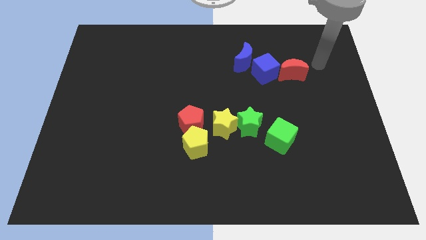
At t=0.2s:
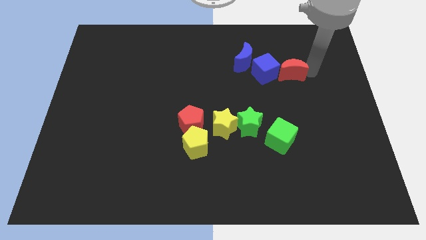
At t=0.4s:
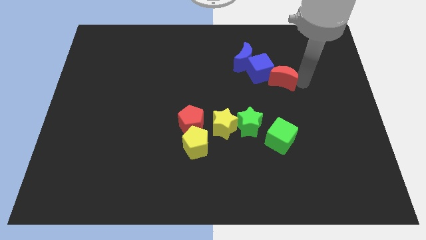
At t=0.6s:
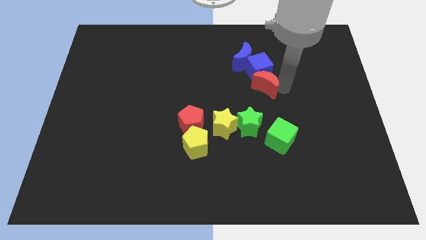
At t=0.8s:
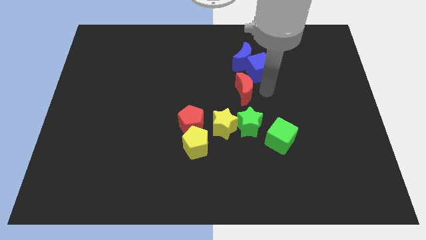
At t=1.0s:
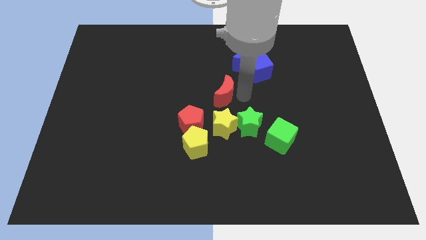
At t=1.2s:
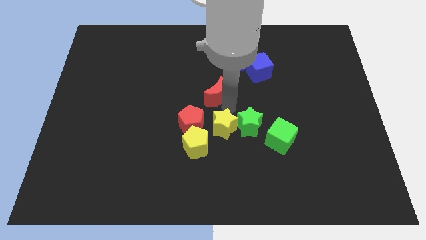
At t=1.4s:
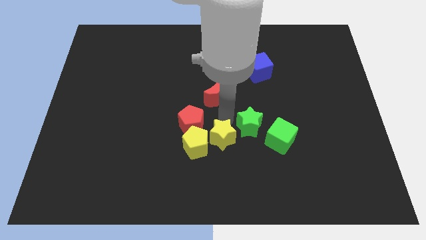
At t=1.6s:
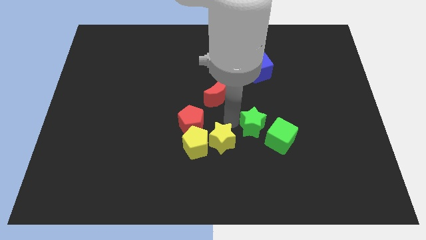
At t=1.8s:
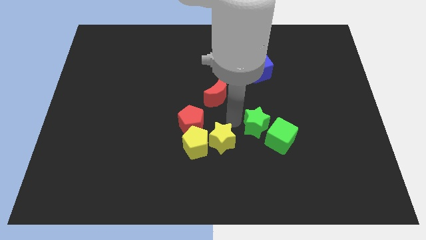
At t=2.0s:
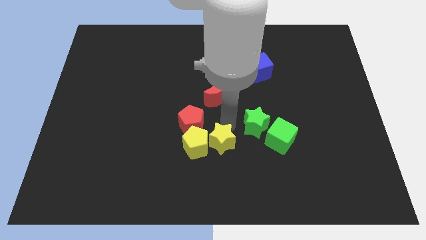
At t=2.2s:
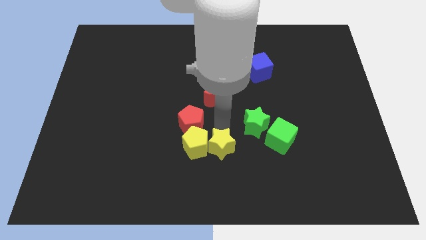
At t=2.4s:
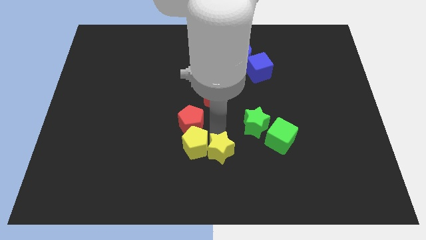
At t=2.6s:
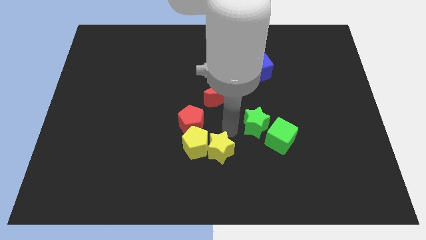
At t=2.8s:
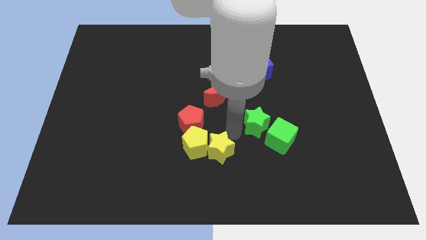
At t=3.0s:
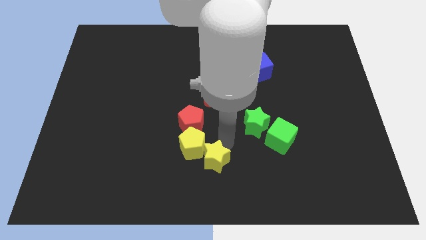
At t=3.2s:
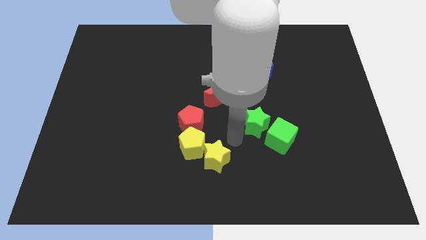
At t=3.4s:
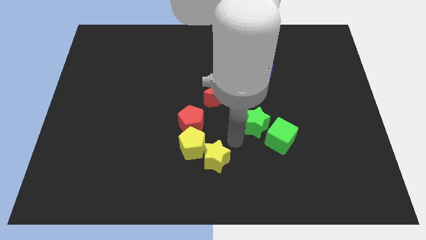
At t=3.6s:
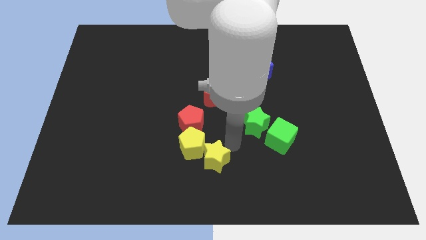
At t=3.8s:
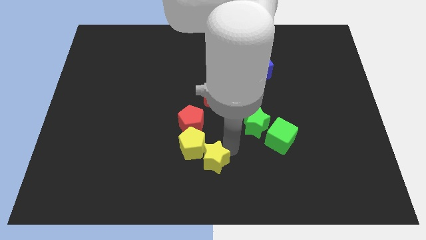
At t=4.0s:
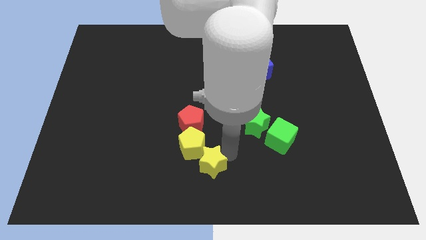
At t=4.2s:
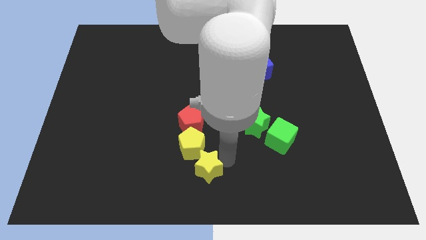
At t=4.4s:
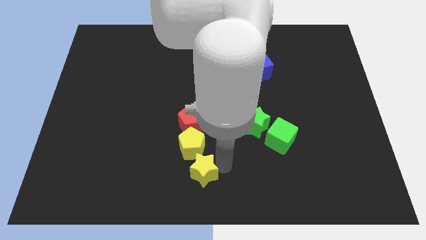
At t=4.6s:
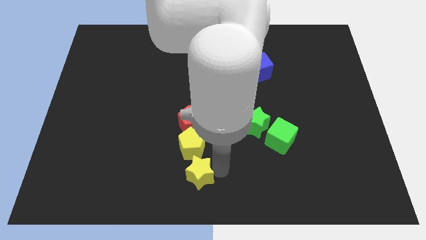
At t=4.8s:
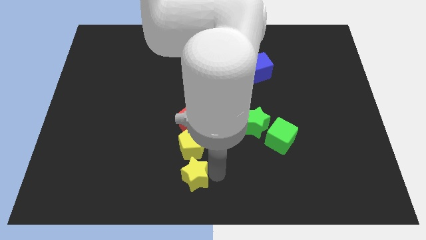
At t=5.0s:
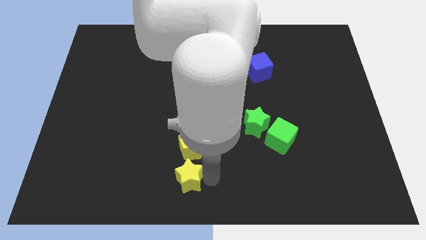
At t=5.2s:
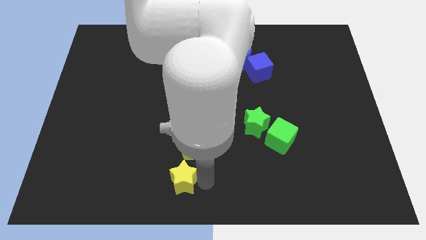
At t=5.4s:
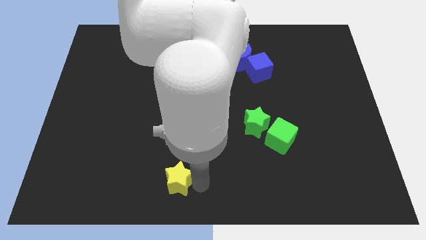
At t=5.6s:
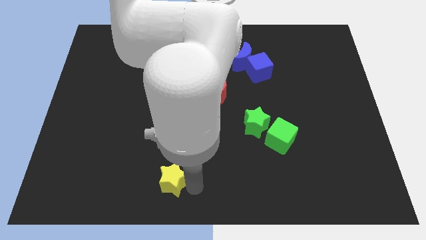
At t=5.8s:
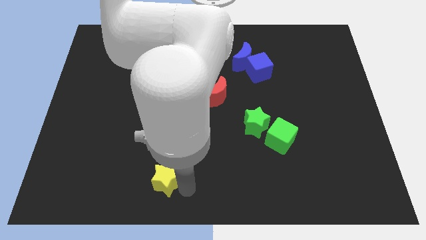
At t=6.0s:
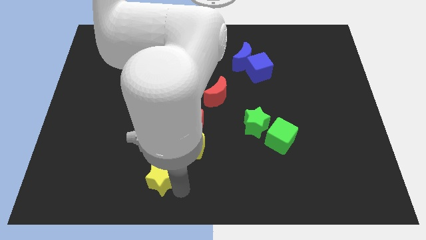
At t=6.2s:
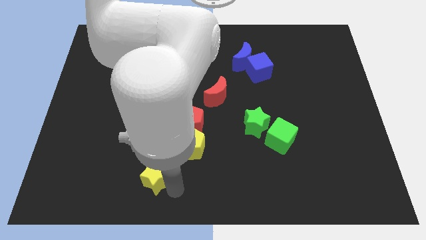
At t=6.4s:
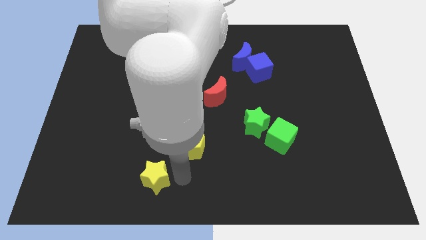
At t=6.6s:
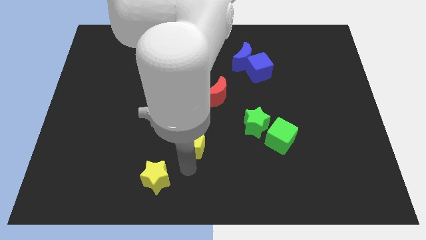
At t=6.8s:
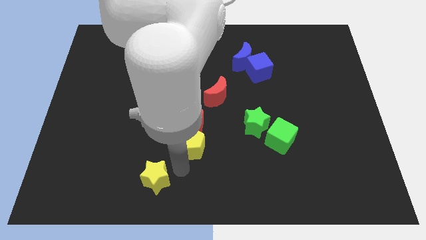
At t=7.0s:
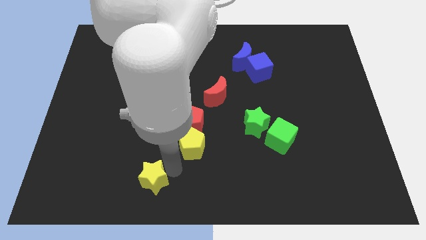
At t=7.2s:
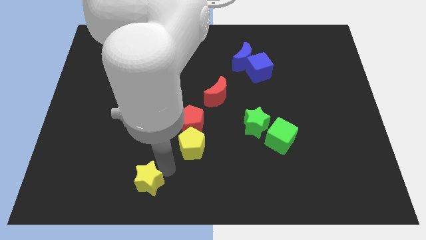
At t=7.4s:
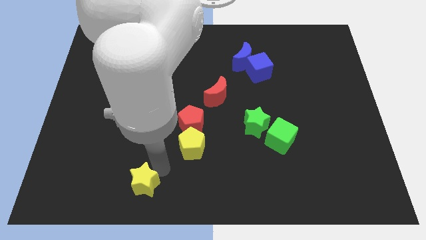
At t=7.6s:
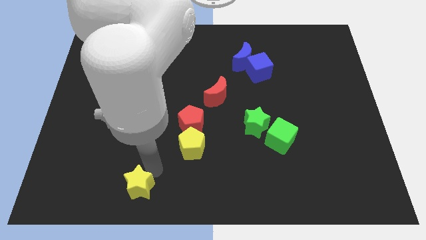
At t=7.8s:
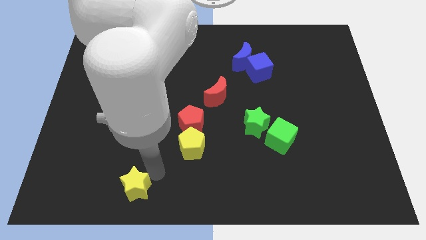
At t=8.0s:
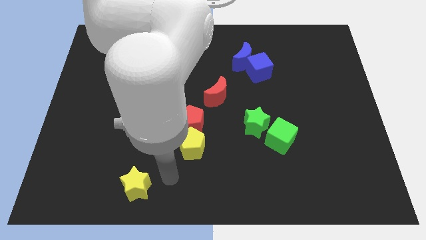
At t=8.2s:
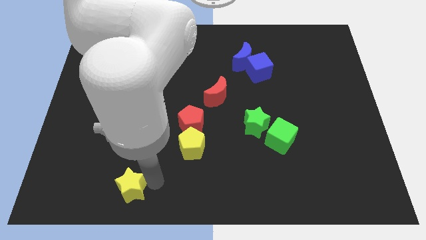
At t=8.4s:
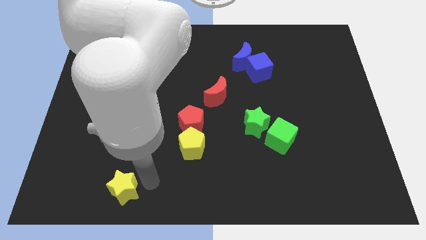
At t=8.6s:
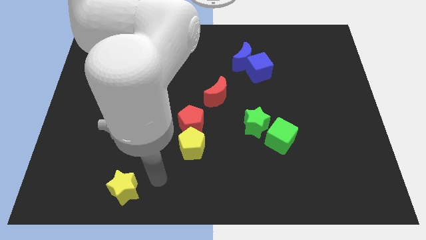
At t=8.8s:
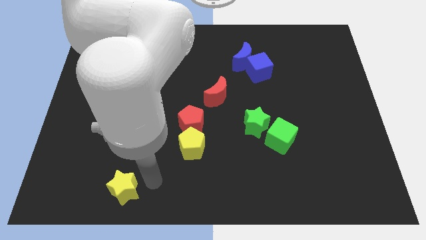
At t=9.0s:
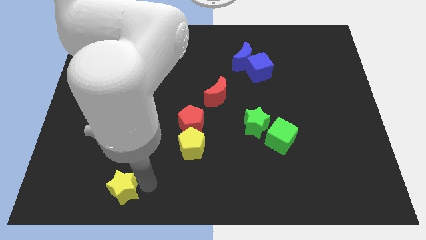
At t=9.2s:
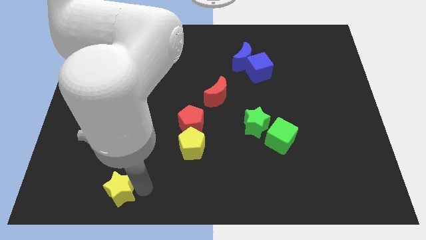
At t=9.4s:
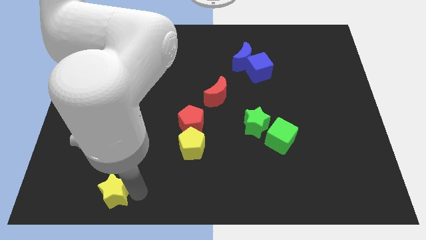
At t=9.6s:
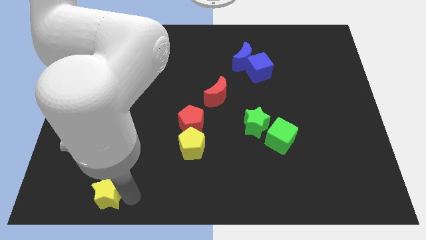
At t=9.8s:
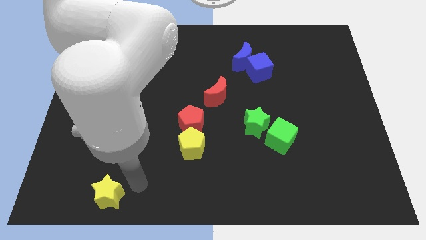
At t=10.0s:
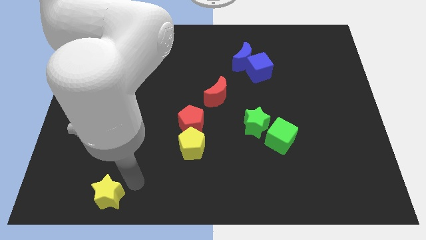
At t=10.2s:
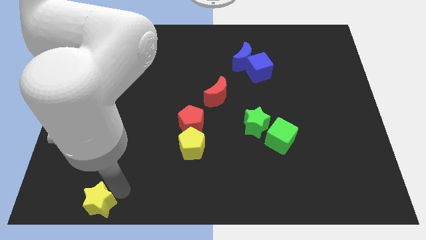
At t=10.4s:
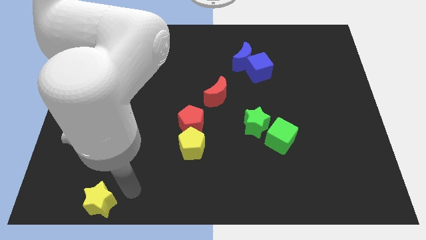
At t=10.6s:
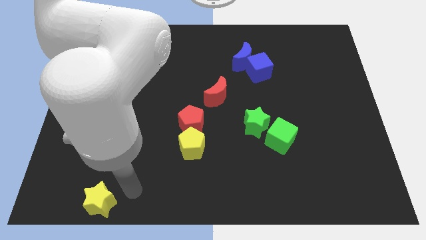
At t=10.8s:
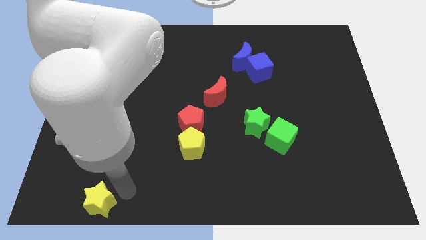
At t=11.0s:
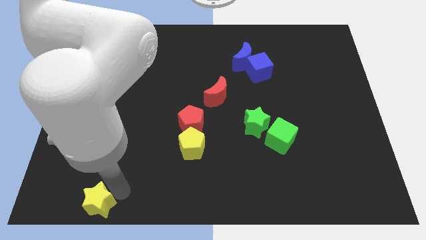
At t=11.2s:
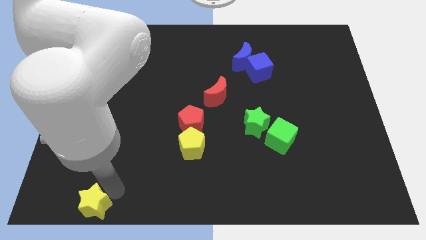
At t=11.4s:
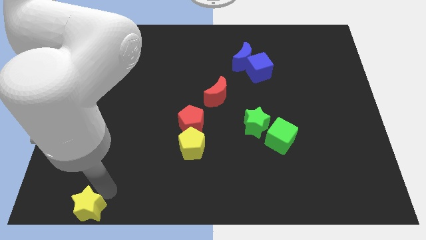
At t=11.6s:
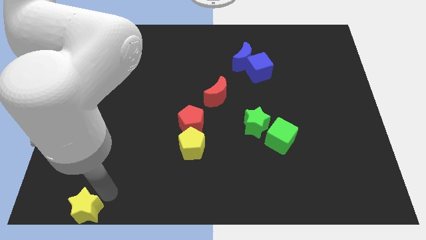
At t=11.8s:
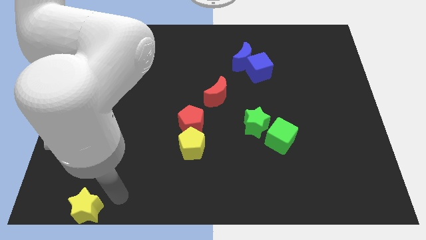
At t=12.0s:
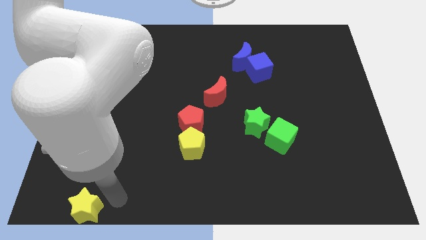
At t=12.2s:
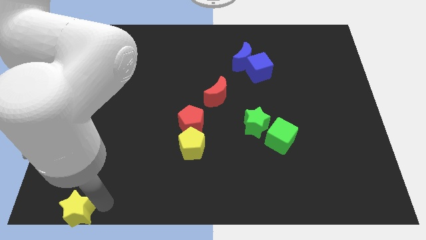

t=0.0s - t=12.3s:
push the yellow star to the bottom left of the board
